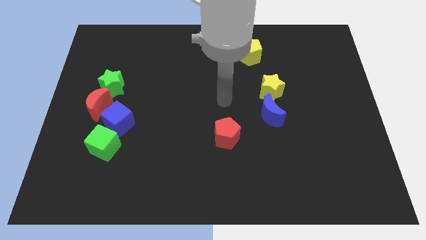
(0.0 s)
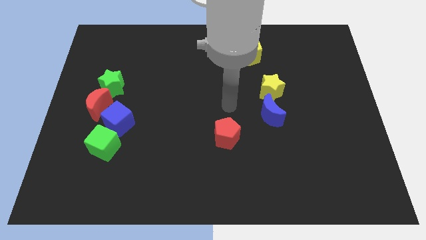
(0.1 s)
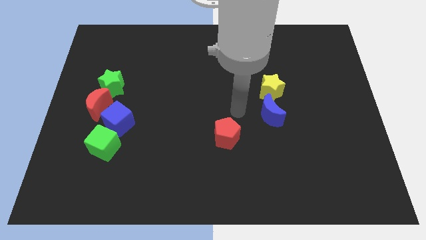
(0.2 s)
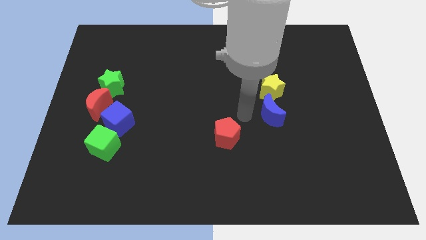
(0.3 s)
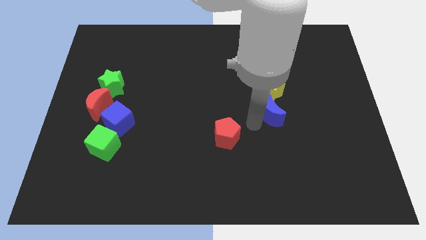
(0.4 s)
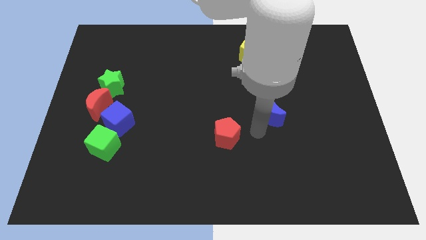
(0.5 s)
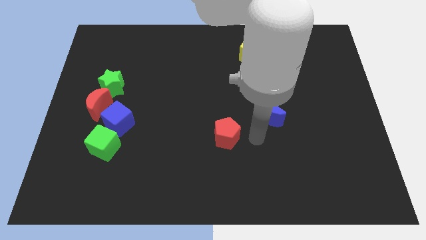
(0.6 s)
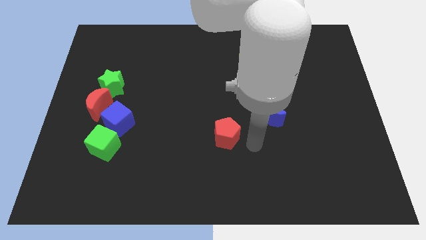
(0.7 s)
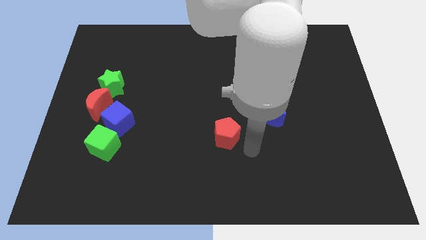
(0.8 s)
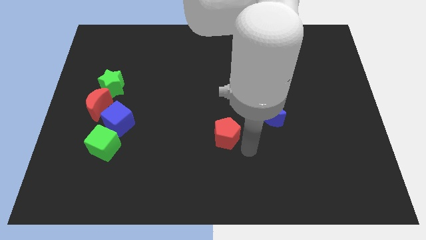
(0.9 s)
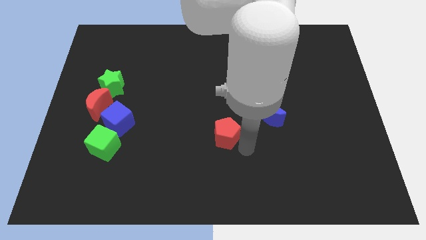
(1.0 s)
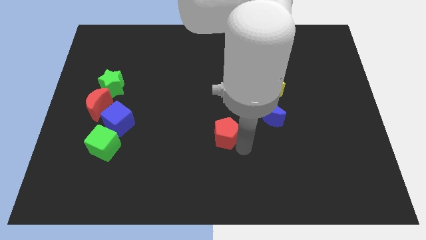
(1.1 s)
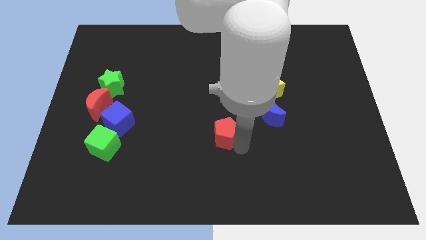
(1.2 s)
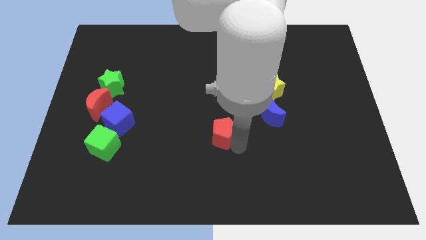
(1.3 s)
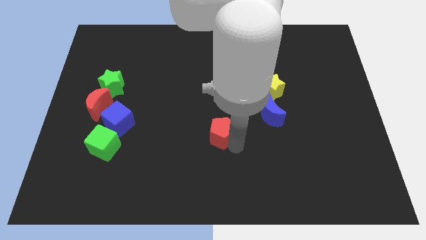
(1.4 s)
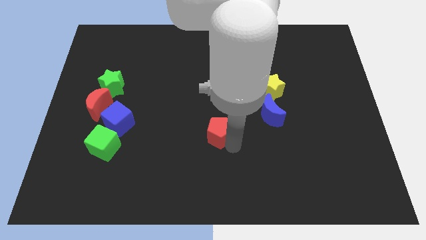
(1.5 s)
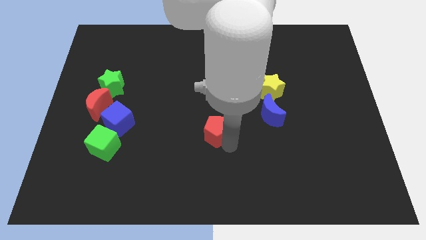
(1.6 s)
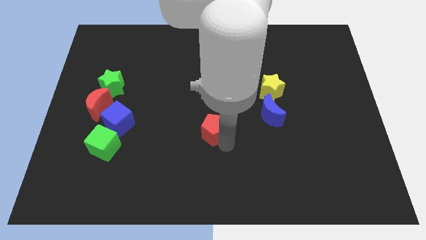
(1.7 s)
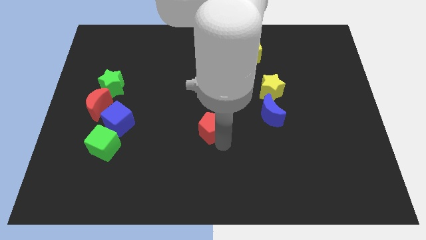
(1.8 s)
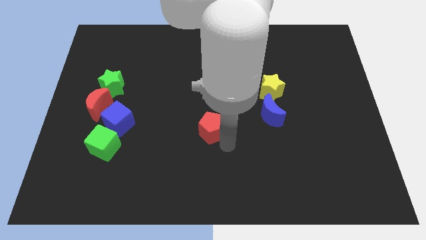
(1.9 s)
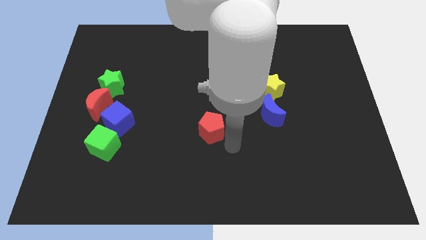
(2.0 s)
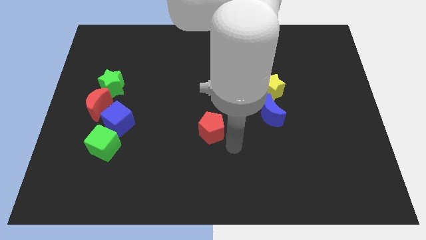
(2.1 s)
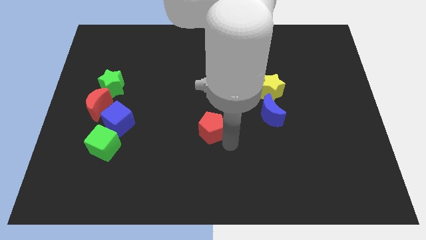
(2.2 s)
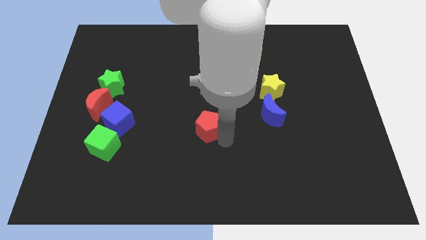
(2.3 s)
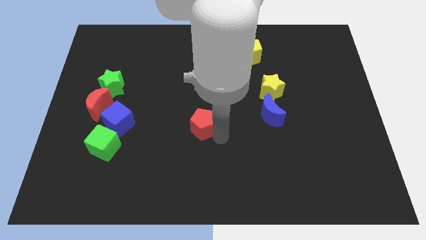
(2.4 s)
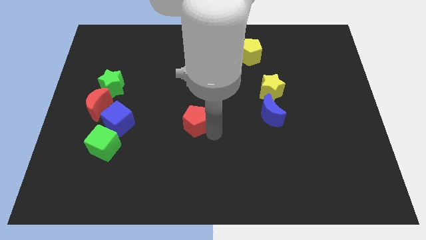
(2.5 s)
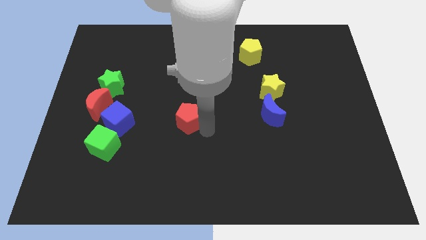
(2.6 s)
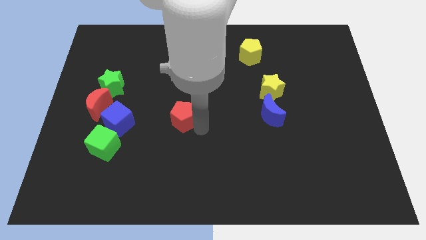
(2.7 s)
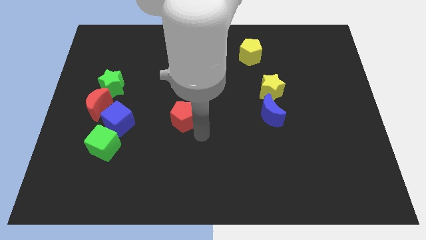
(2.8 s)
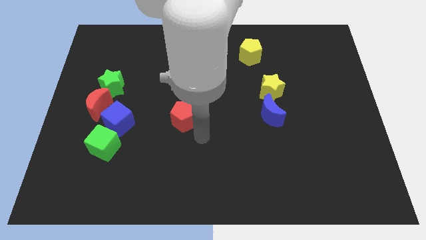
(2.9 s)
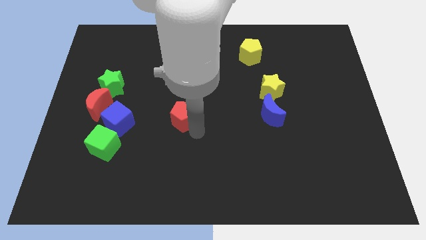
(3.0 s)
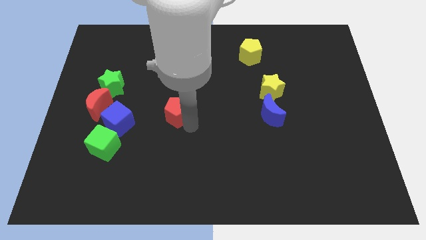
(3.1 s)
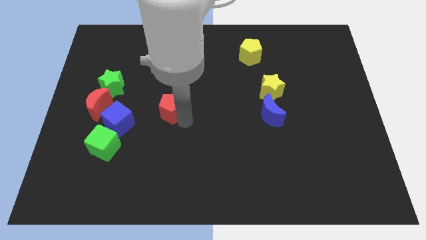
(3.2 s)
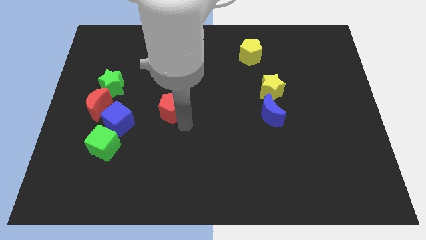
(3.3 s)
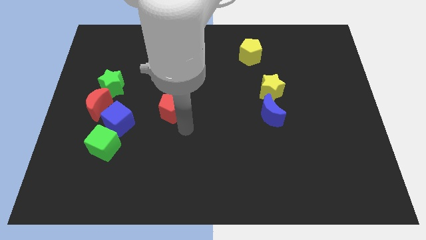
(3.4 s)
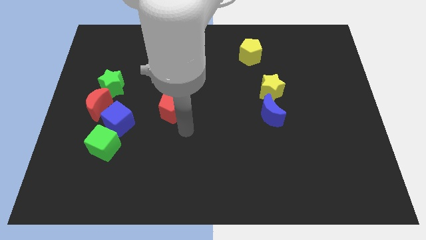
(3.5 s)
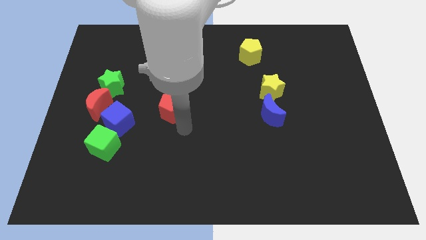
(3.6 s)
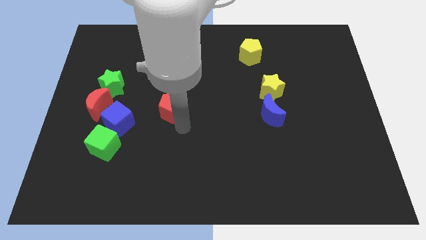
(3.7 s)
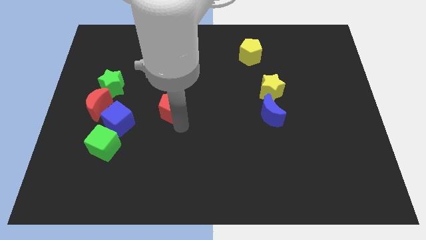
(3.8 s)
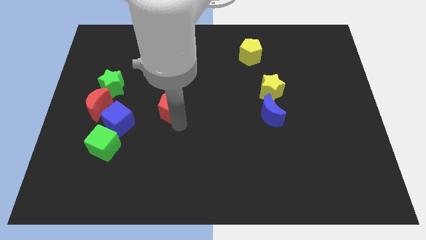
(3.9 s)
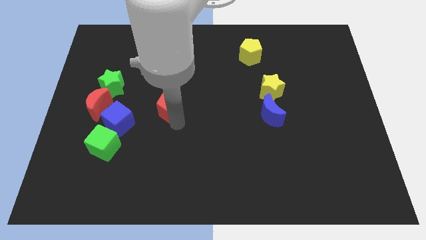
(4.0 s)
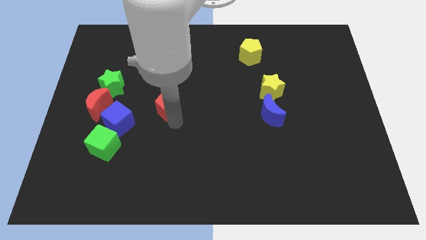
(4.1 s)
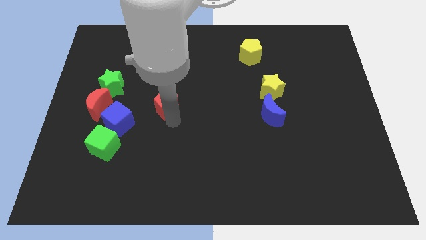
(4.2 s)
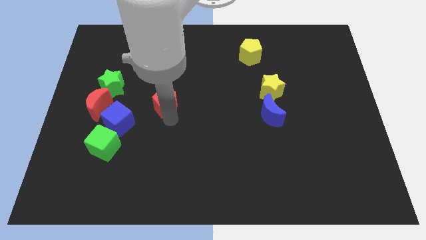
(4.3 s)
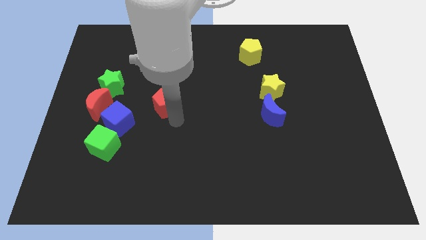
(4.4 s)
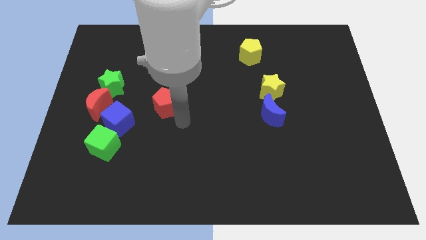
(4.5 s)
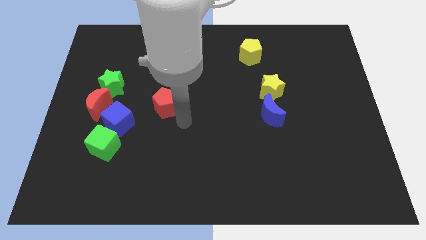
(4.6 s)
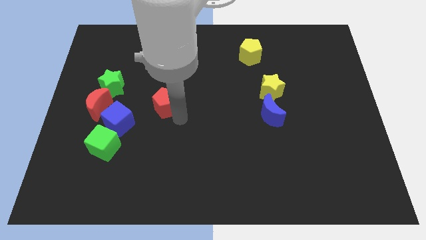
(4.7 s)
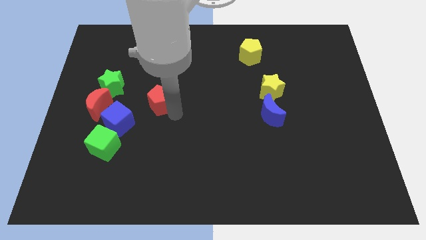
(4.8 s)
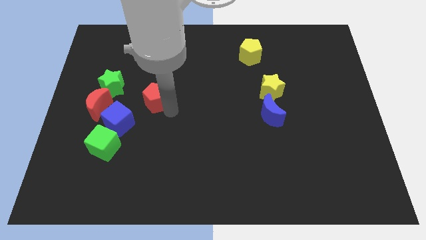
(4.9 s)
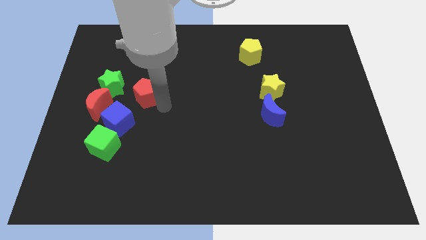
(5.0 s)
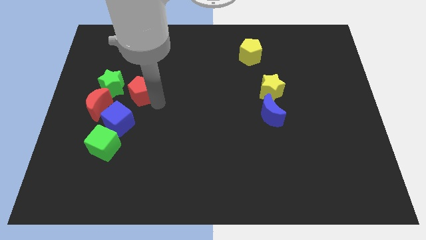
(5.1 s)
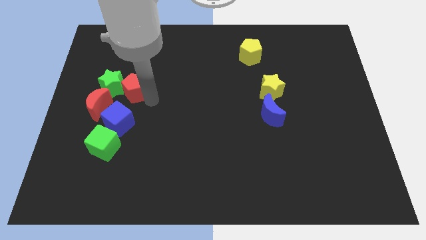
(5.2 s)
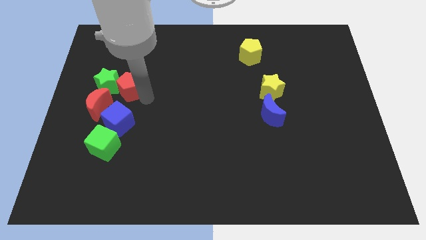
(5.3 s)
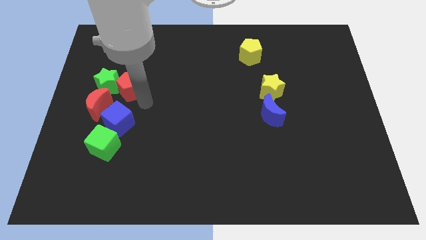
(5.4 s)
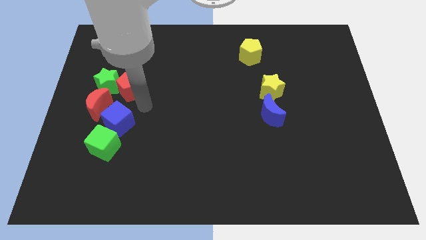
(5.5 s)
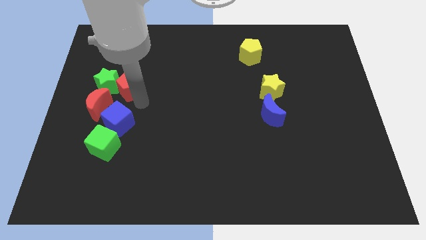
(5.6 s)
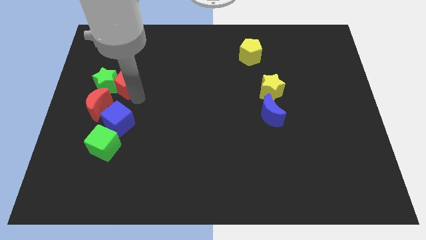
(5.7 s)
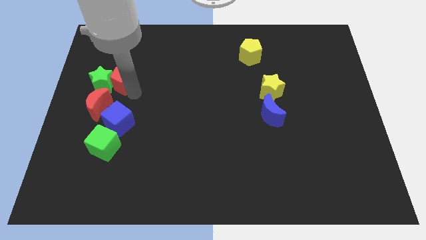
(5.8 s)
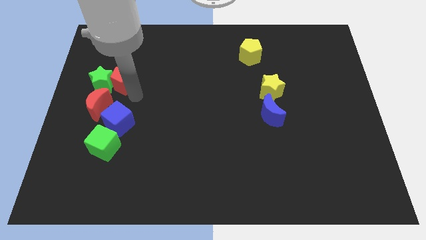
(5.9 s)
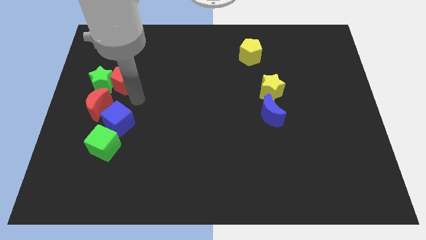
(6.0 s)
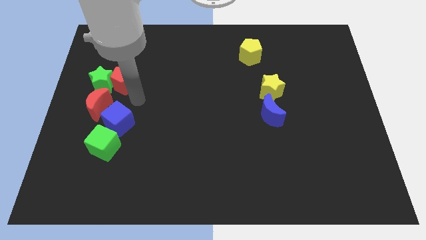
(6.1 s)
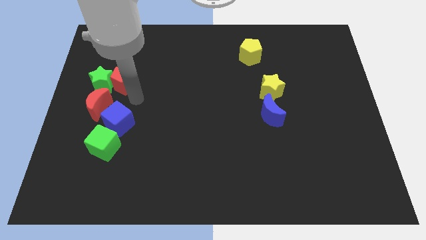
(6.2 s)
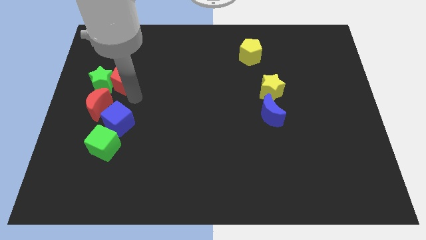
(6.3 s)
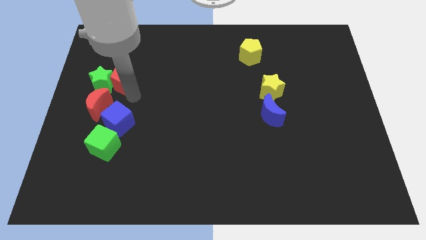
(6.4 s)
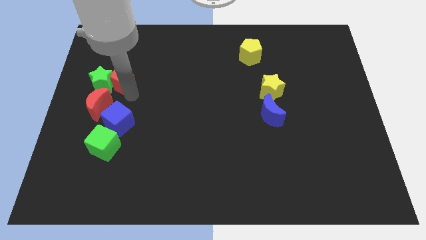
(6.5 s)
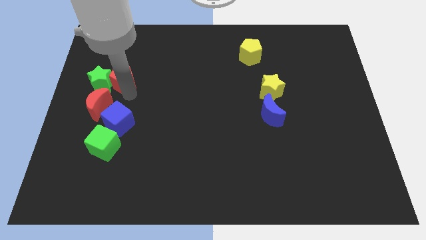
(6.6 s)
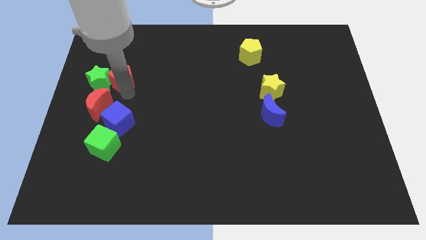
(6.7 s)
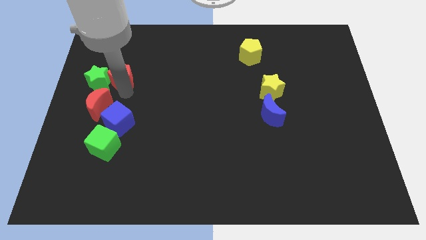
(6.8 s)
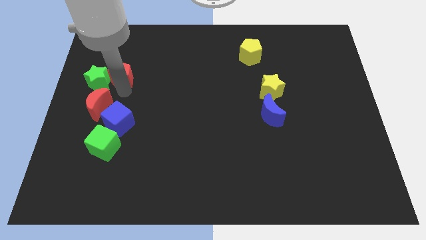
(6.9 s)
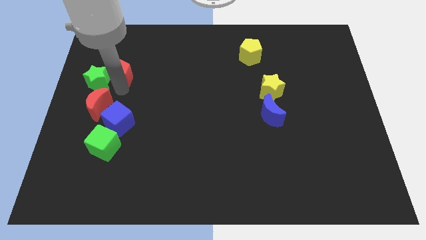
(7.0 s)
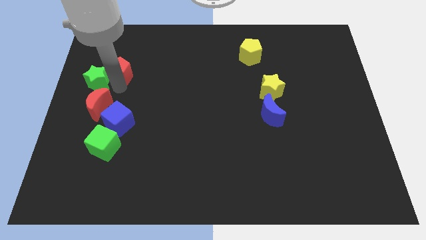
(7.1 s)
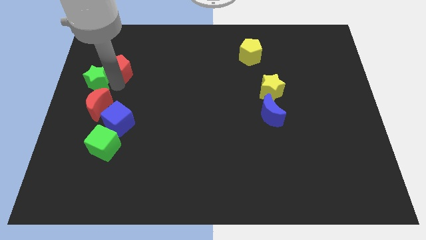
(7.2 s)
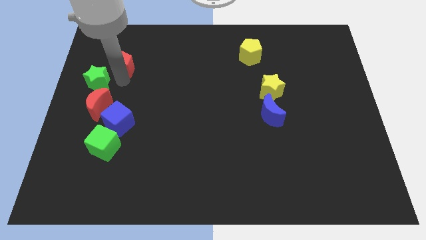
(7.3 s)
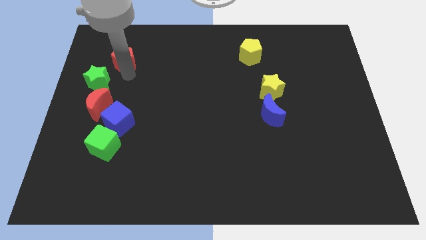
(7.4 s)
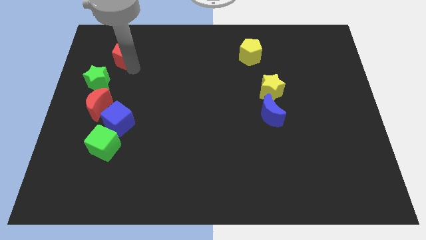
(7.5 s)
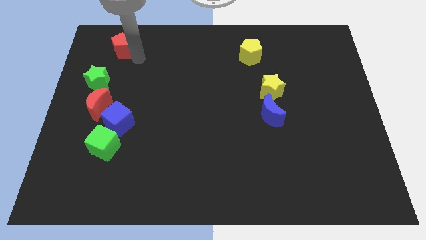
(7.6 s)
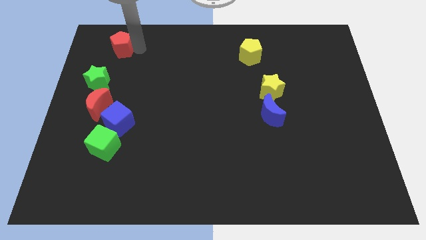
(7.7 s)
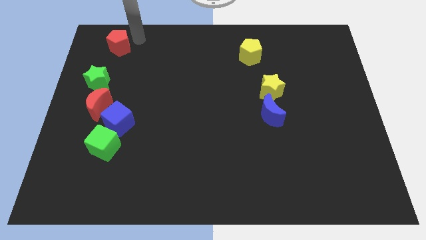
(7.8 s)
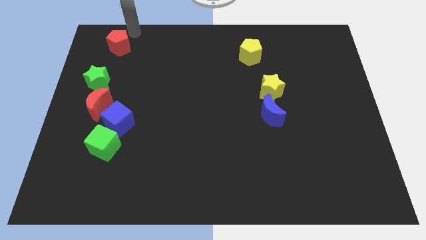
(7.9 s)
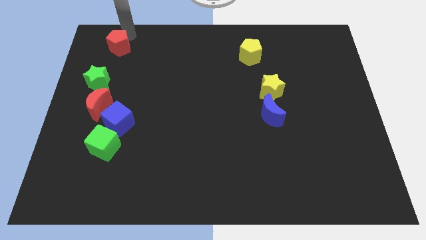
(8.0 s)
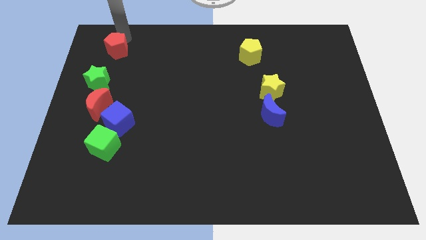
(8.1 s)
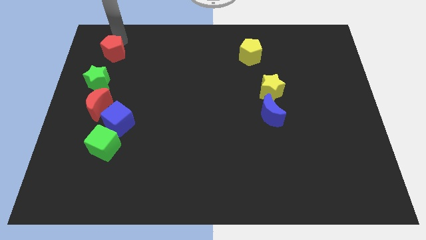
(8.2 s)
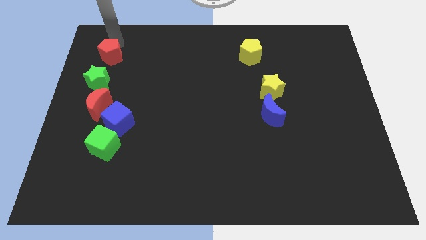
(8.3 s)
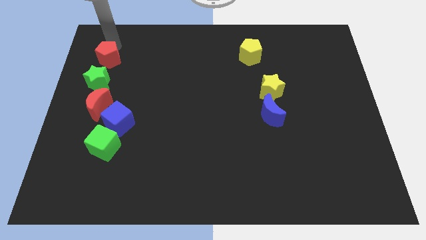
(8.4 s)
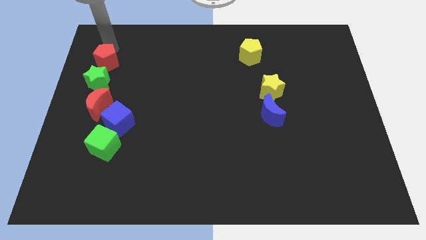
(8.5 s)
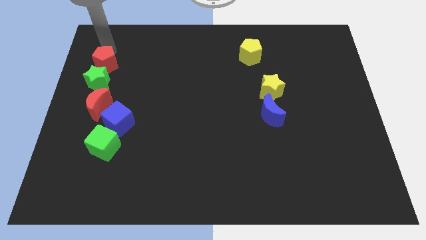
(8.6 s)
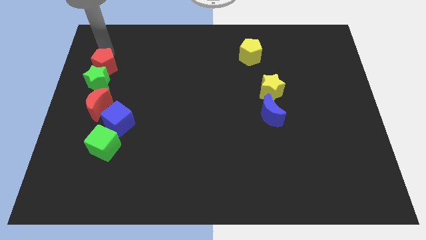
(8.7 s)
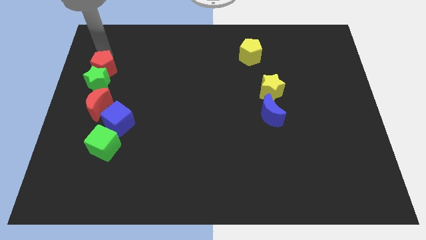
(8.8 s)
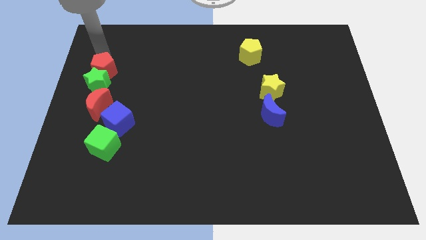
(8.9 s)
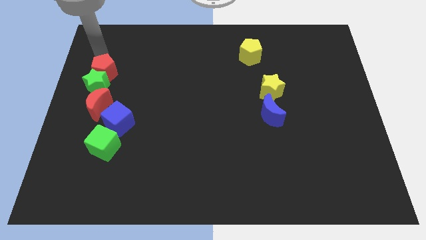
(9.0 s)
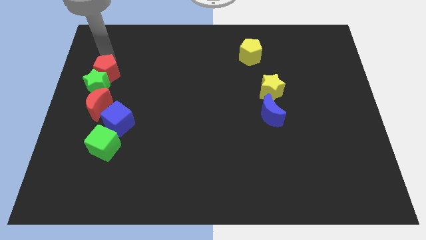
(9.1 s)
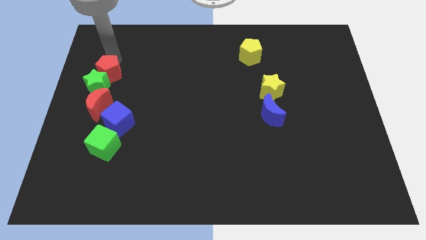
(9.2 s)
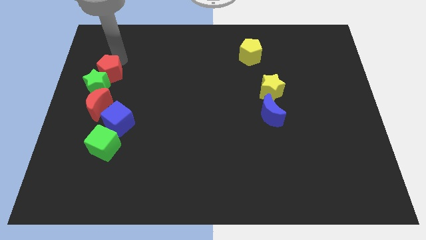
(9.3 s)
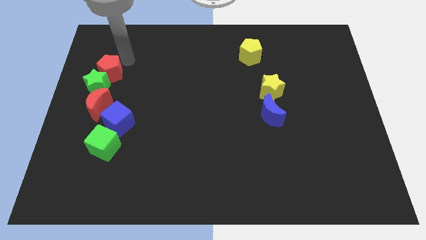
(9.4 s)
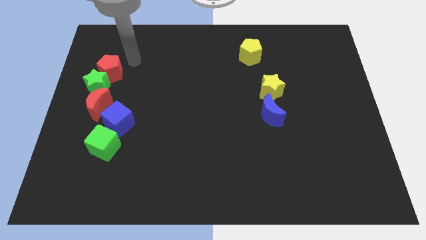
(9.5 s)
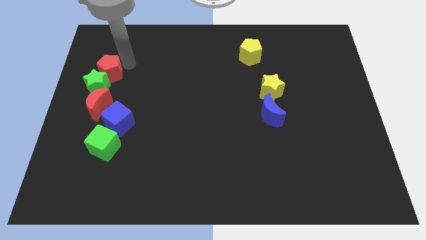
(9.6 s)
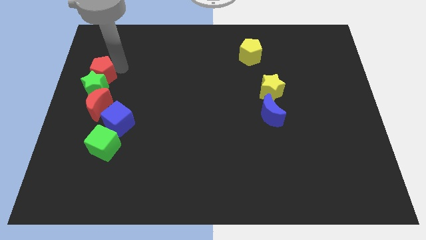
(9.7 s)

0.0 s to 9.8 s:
push the red pentagon to the left side of the board
